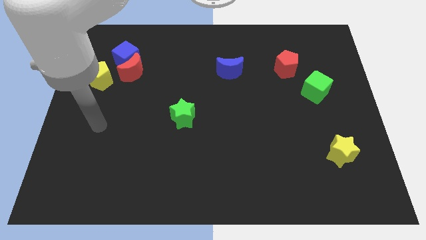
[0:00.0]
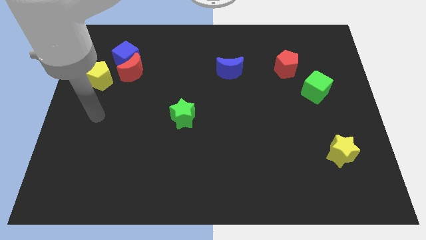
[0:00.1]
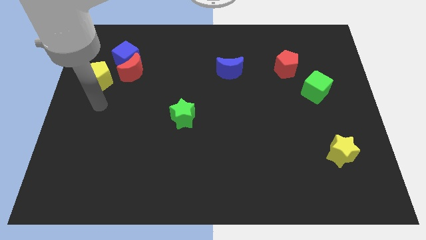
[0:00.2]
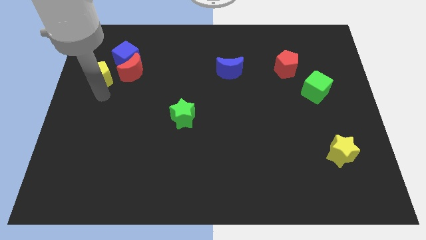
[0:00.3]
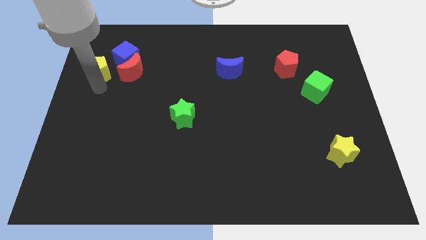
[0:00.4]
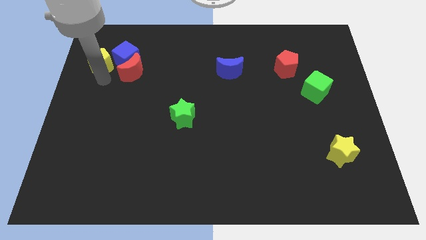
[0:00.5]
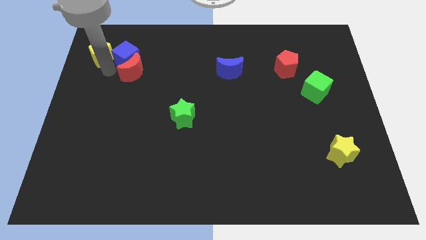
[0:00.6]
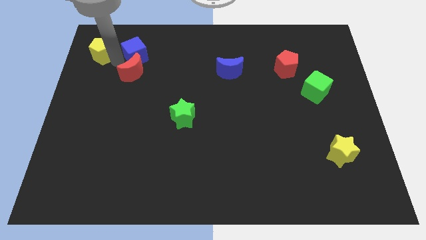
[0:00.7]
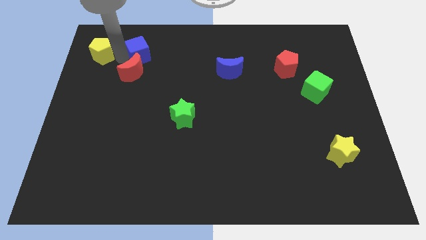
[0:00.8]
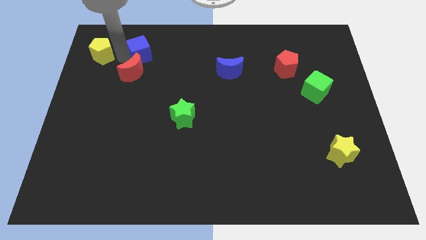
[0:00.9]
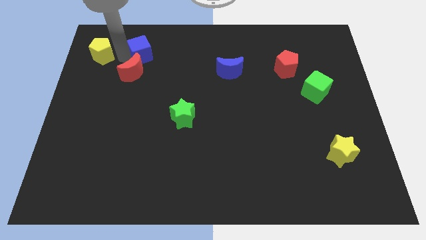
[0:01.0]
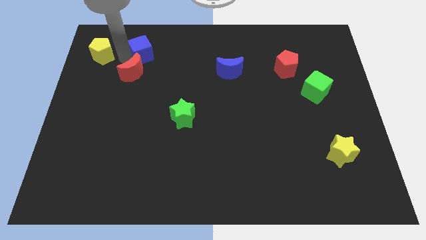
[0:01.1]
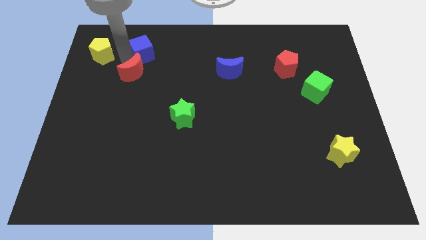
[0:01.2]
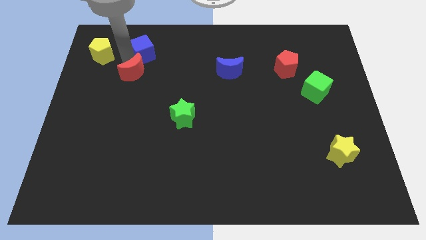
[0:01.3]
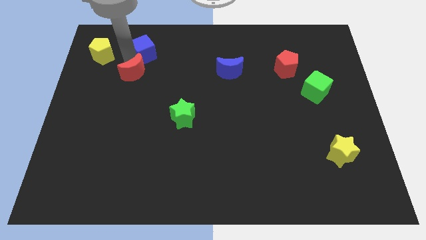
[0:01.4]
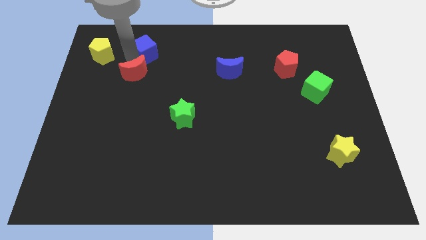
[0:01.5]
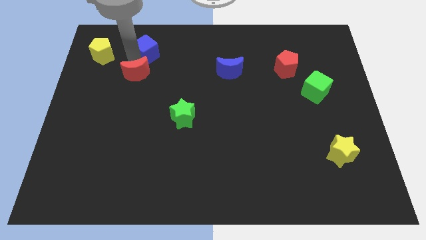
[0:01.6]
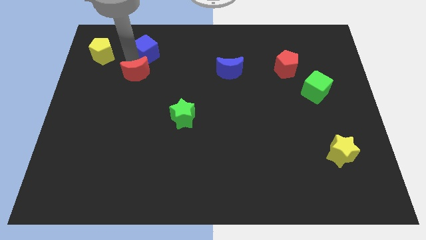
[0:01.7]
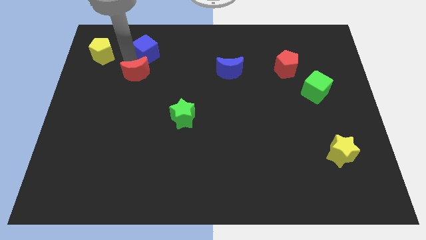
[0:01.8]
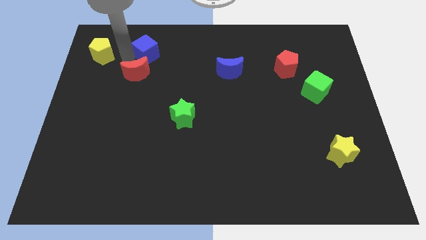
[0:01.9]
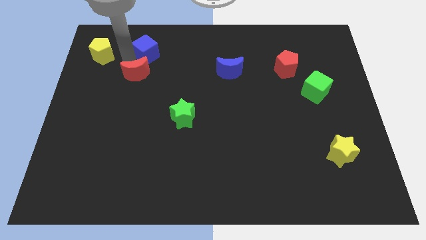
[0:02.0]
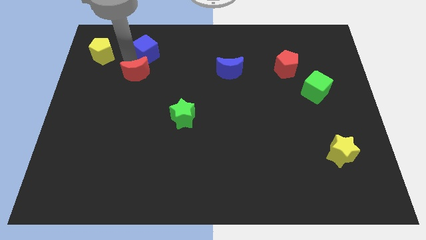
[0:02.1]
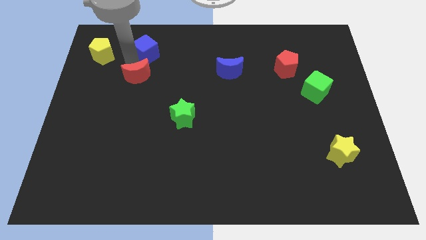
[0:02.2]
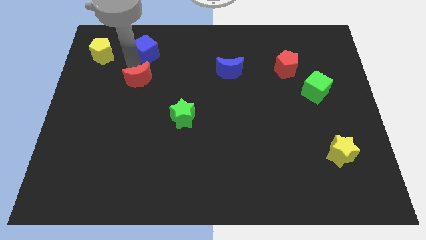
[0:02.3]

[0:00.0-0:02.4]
pull the red moon apart from the blue cube and yellow pentagon

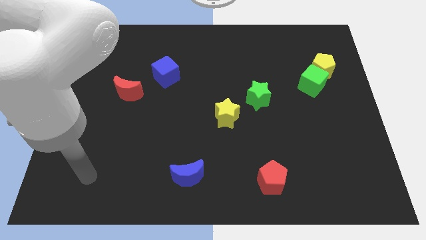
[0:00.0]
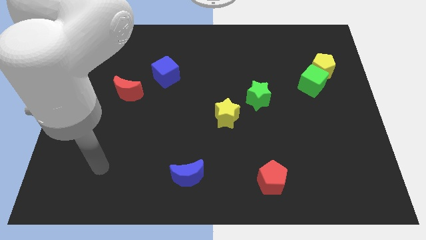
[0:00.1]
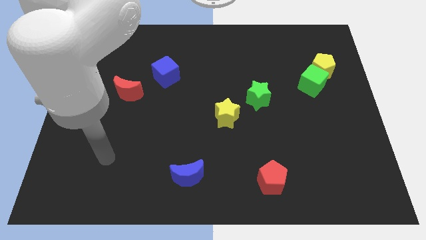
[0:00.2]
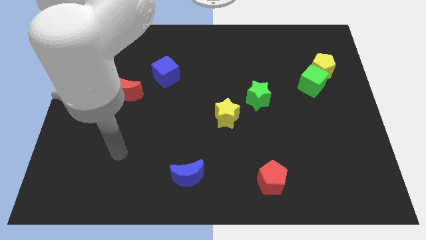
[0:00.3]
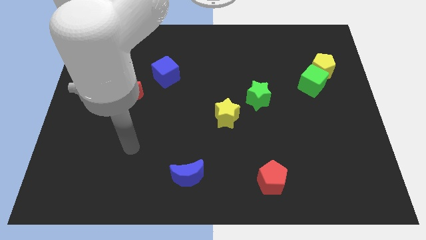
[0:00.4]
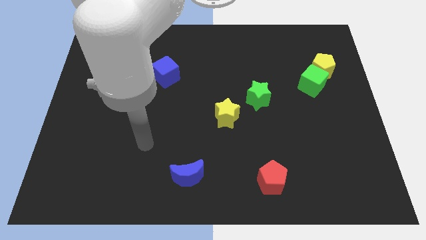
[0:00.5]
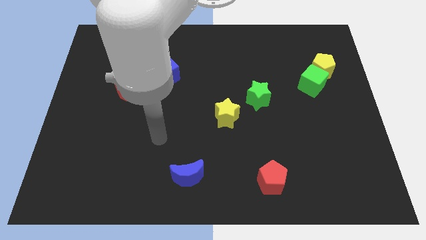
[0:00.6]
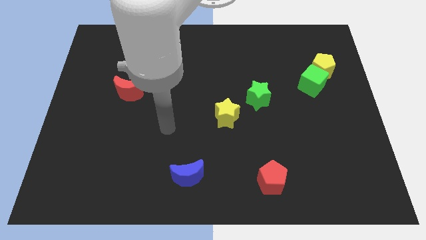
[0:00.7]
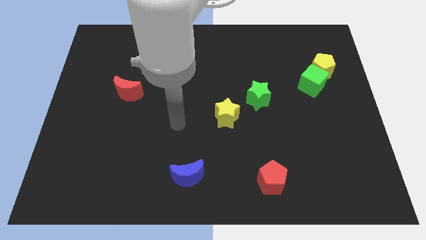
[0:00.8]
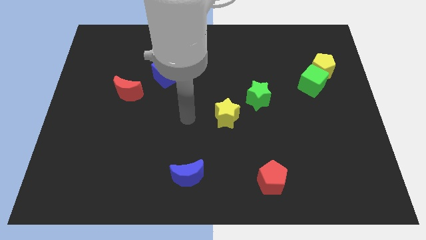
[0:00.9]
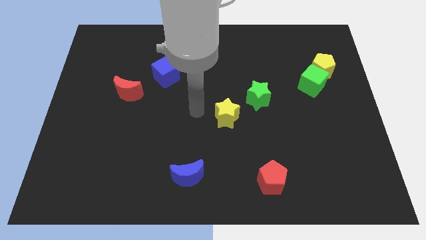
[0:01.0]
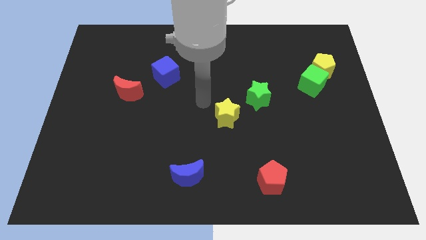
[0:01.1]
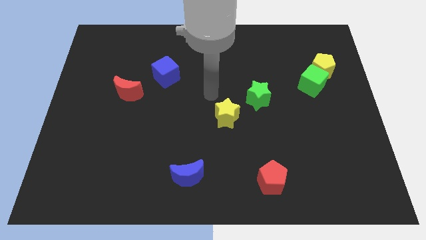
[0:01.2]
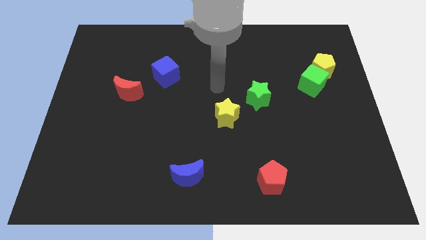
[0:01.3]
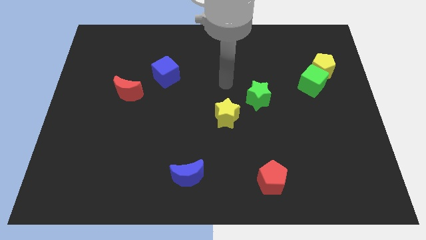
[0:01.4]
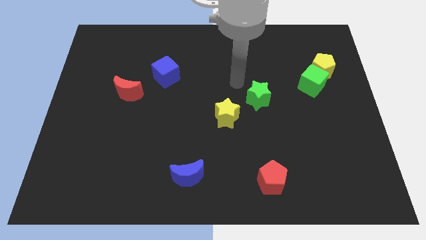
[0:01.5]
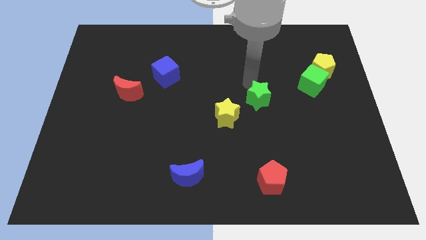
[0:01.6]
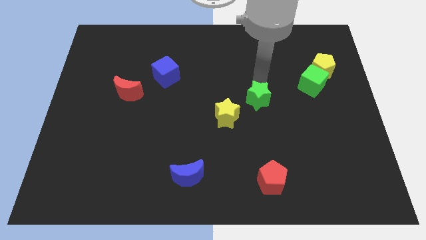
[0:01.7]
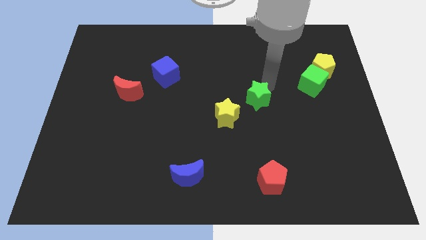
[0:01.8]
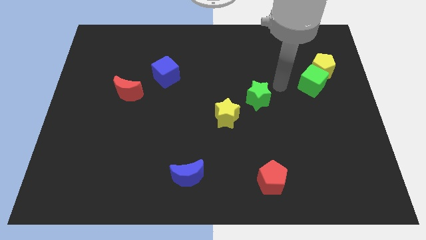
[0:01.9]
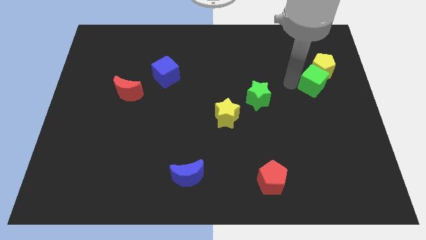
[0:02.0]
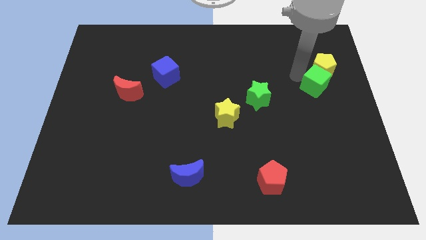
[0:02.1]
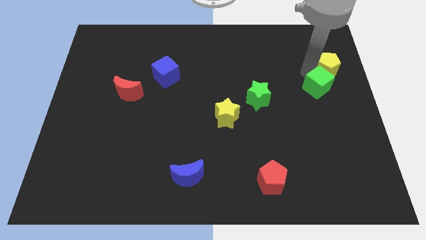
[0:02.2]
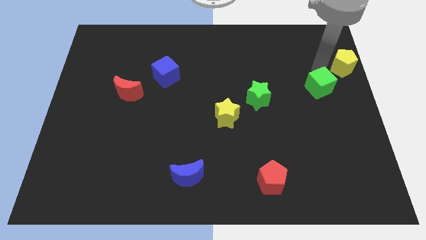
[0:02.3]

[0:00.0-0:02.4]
separate the green cube from the yellow pentagon

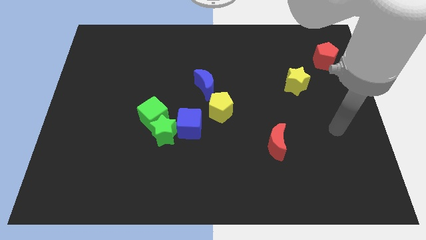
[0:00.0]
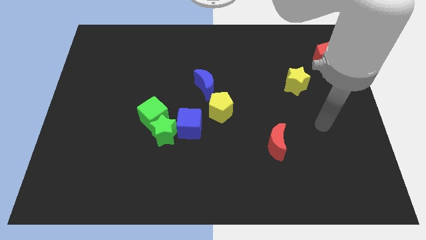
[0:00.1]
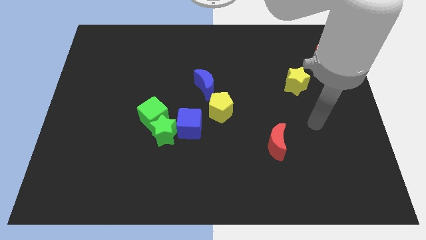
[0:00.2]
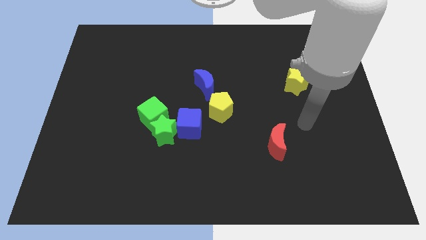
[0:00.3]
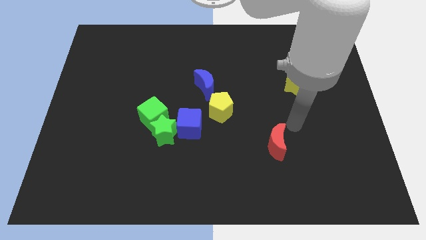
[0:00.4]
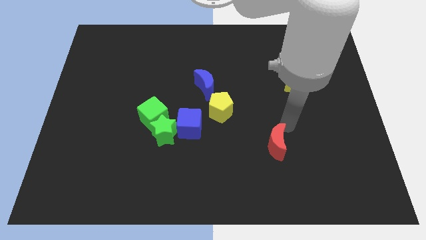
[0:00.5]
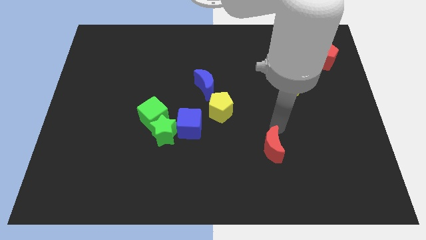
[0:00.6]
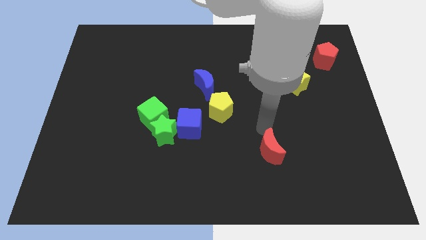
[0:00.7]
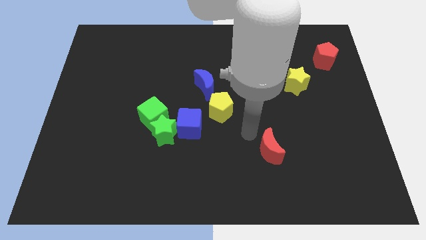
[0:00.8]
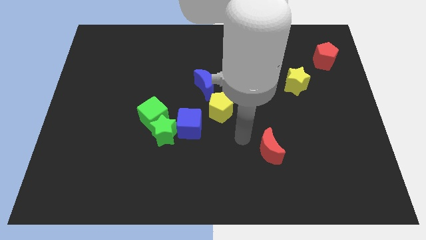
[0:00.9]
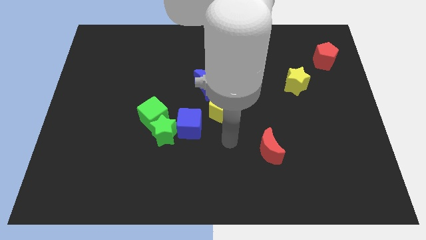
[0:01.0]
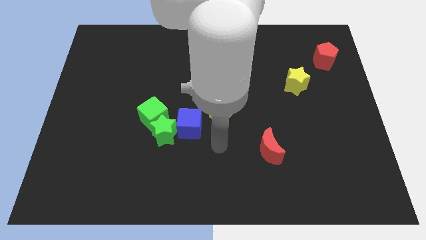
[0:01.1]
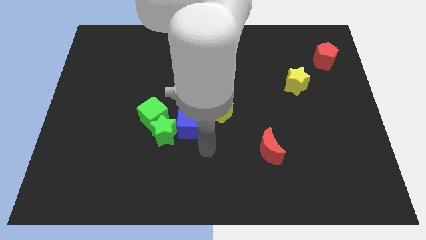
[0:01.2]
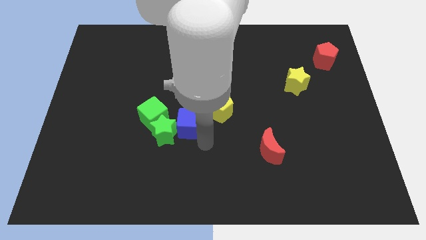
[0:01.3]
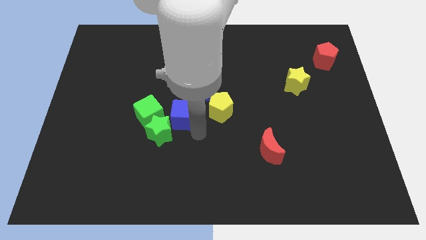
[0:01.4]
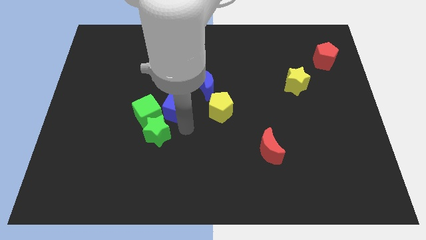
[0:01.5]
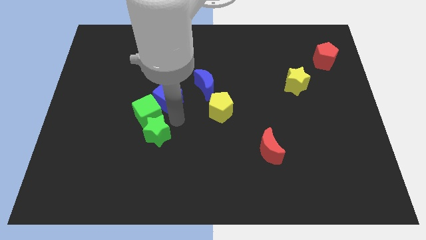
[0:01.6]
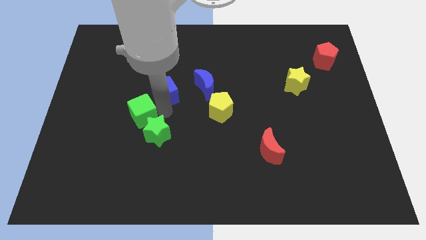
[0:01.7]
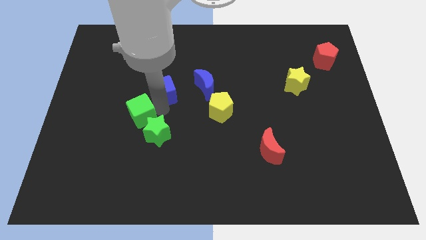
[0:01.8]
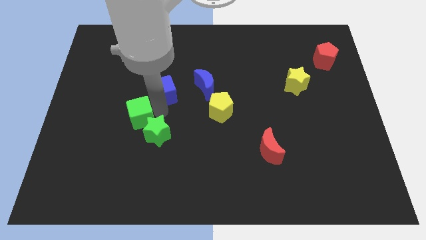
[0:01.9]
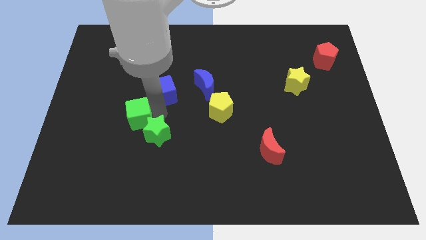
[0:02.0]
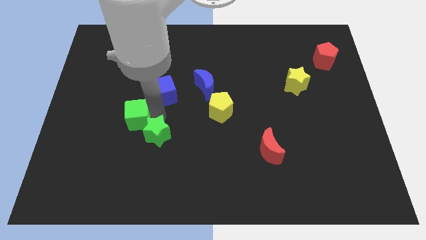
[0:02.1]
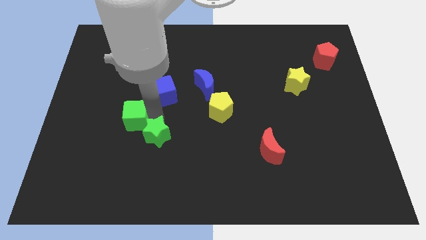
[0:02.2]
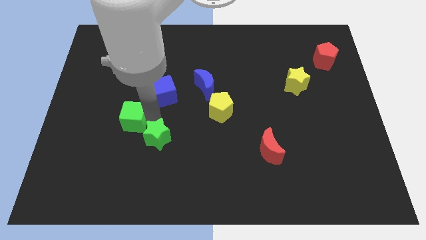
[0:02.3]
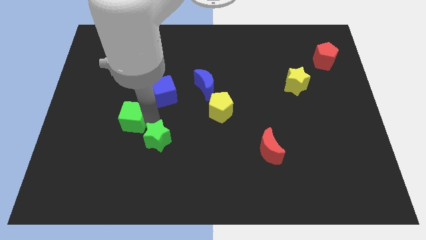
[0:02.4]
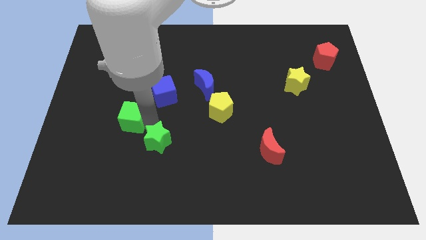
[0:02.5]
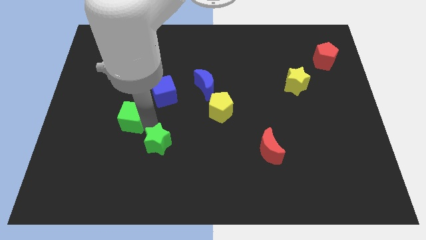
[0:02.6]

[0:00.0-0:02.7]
separate the green star from the green cube and blue cube

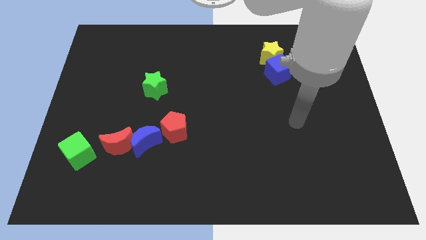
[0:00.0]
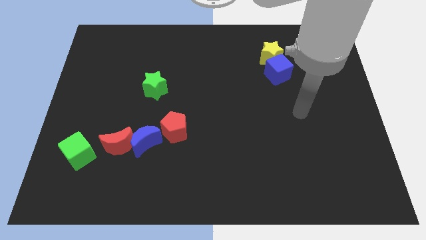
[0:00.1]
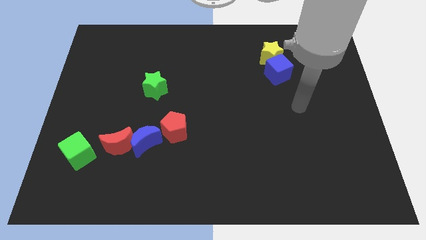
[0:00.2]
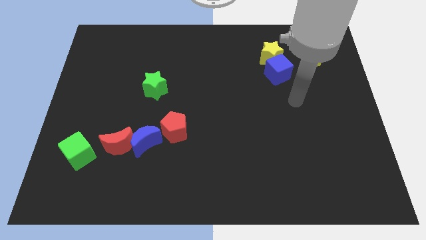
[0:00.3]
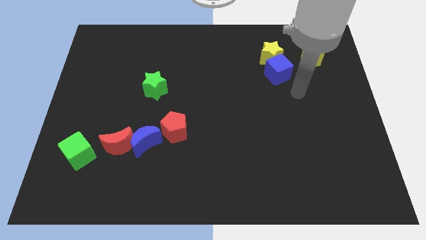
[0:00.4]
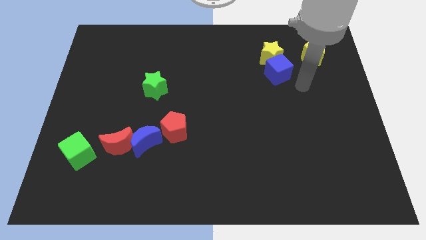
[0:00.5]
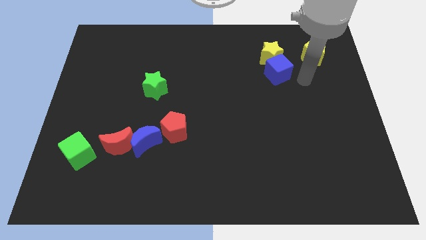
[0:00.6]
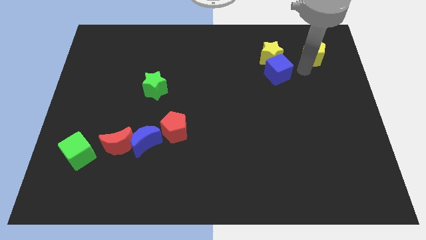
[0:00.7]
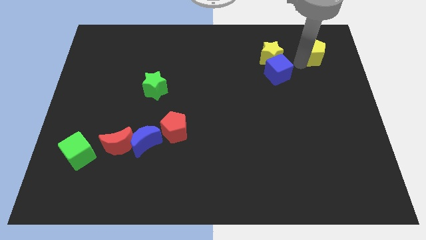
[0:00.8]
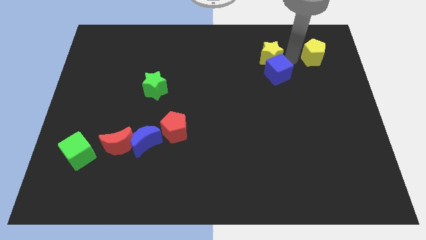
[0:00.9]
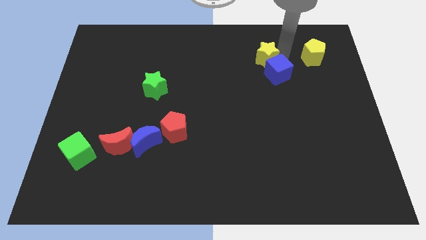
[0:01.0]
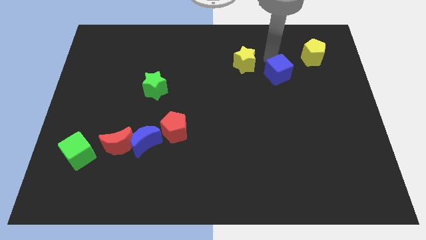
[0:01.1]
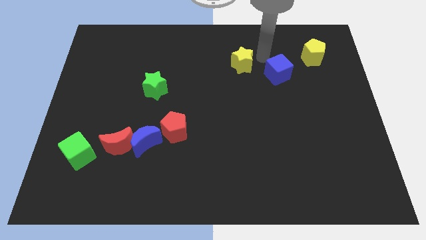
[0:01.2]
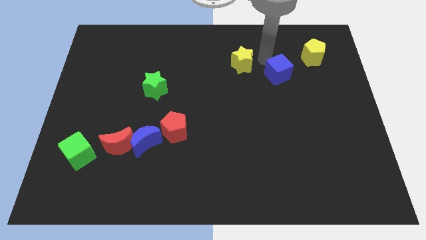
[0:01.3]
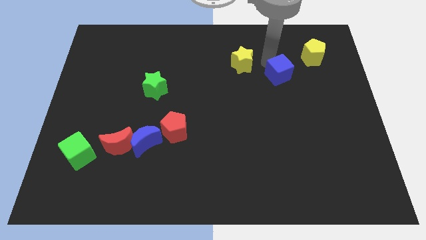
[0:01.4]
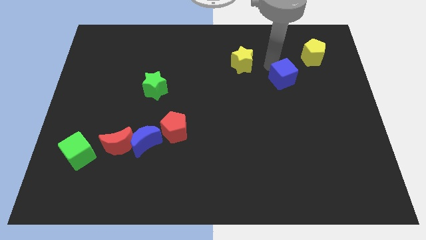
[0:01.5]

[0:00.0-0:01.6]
separate the blue cube from the yellow star

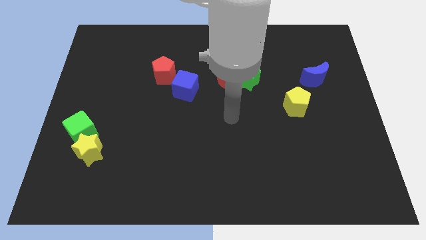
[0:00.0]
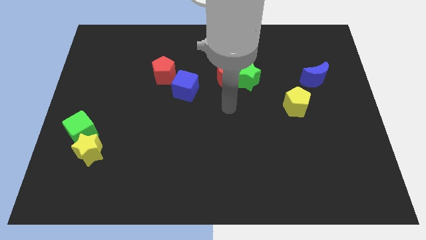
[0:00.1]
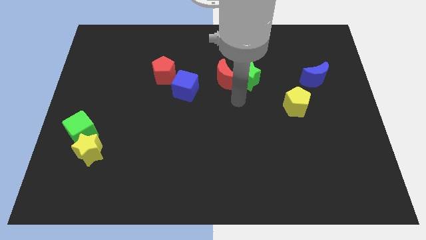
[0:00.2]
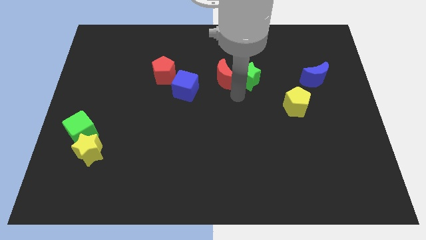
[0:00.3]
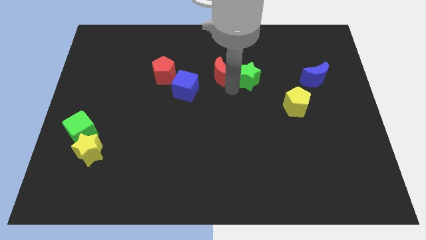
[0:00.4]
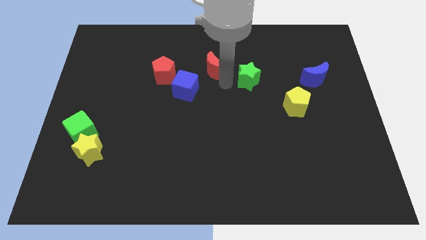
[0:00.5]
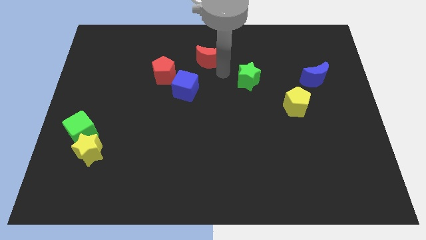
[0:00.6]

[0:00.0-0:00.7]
pull the green star apart from the red moon
